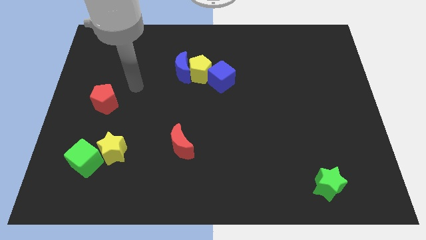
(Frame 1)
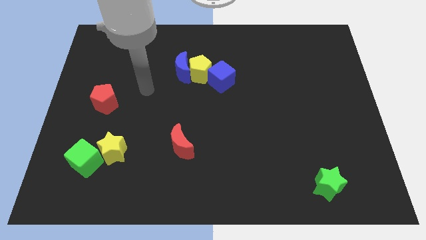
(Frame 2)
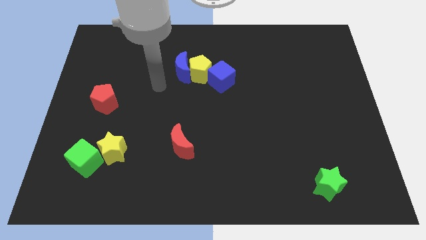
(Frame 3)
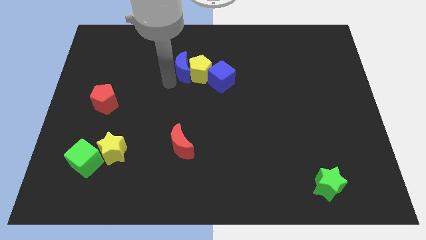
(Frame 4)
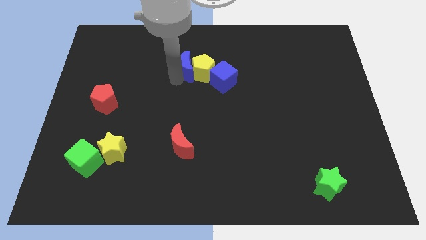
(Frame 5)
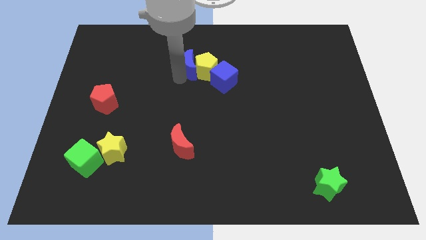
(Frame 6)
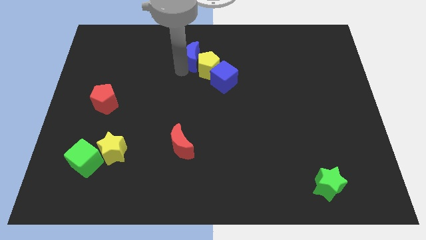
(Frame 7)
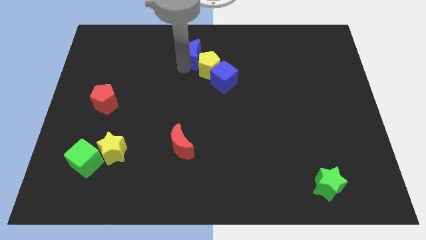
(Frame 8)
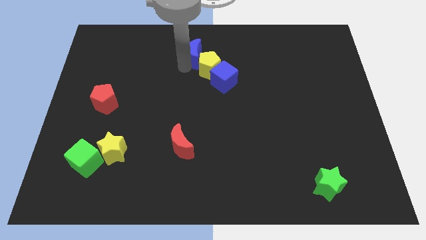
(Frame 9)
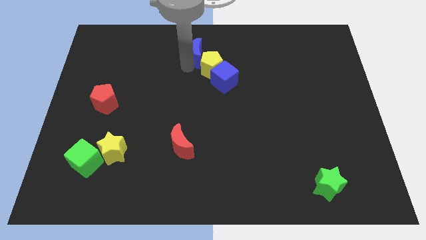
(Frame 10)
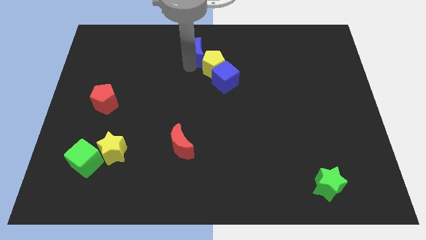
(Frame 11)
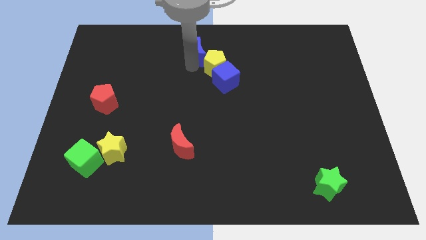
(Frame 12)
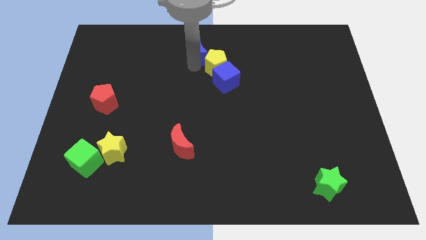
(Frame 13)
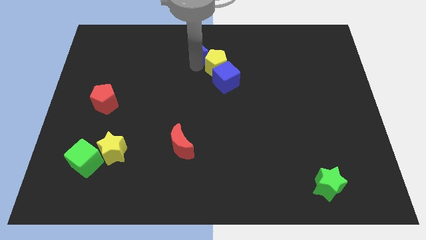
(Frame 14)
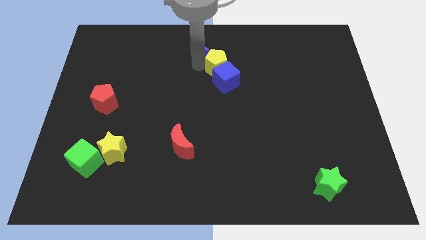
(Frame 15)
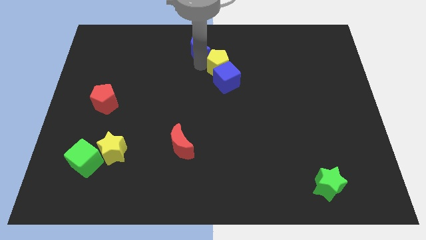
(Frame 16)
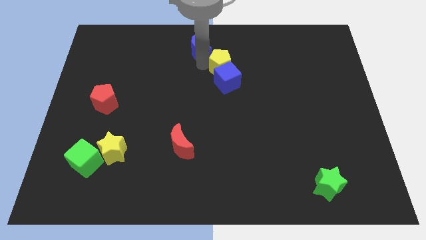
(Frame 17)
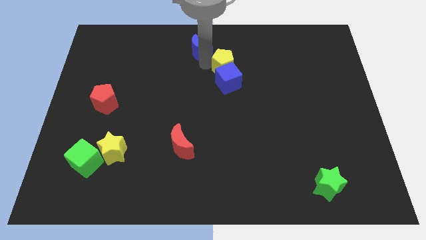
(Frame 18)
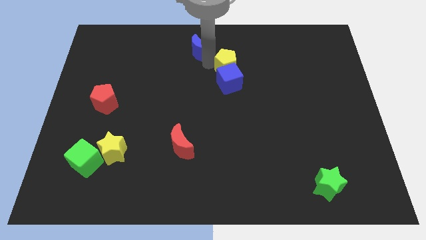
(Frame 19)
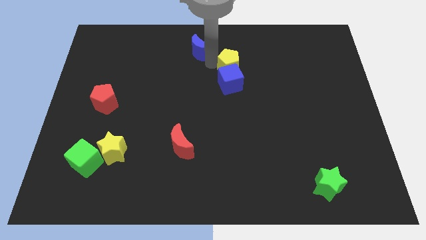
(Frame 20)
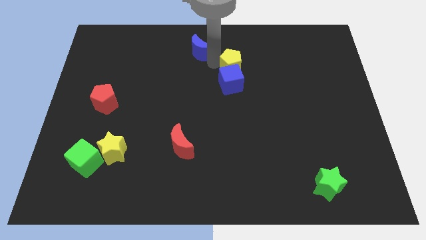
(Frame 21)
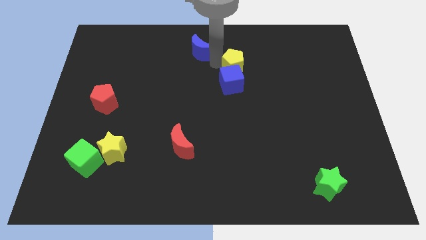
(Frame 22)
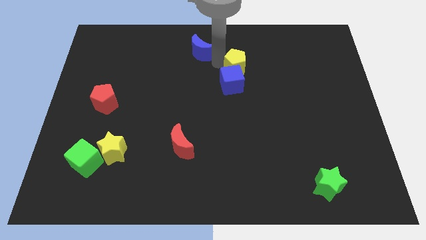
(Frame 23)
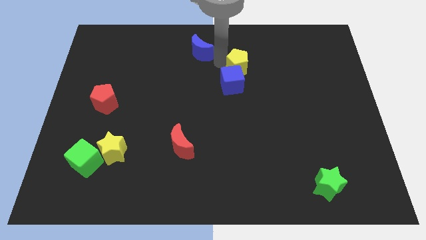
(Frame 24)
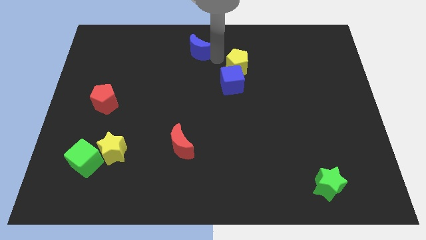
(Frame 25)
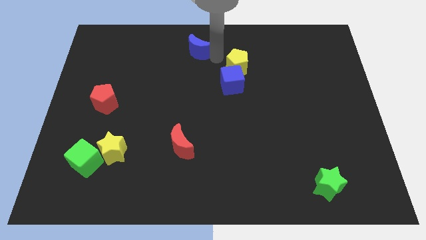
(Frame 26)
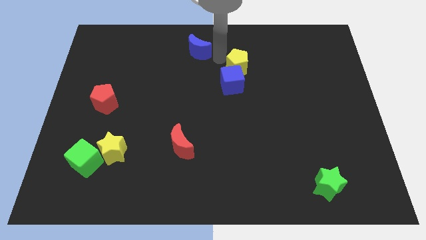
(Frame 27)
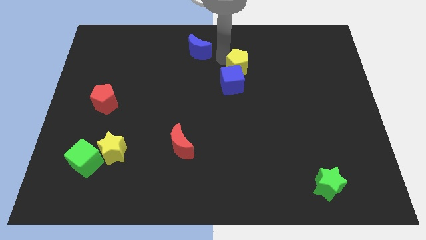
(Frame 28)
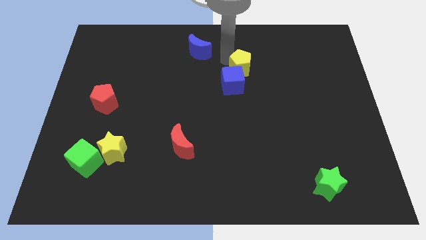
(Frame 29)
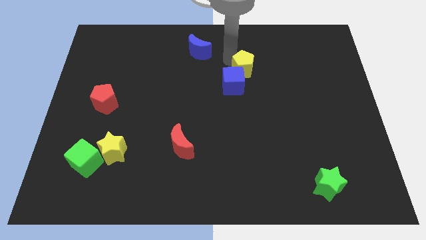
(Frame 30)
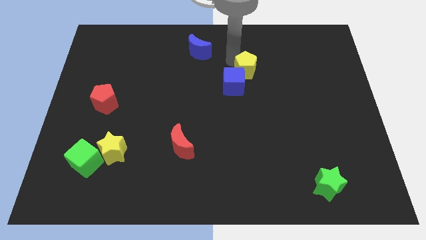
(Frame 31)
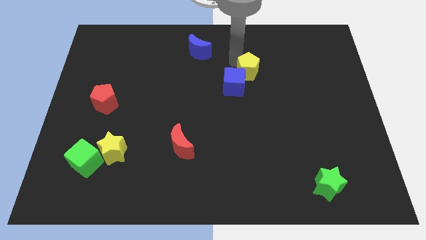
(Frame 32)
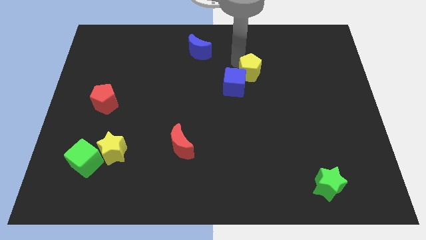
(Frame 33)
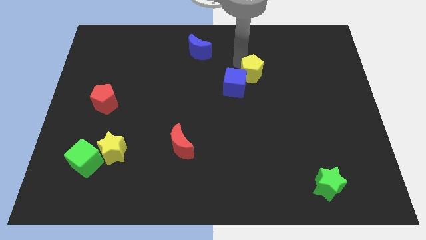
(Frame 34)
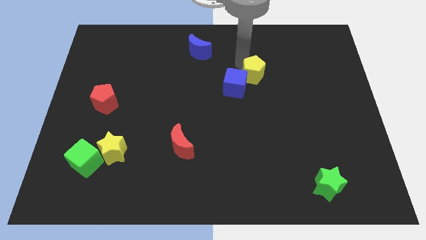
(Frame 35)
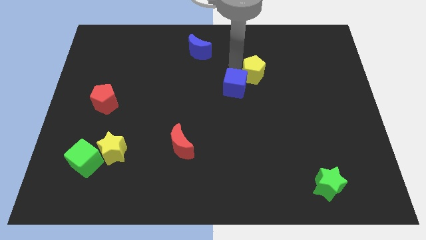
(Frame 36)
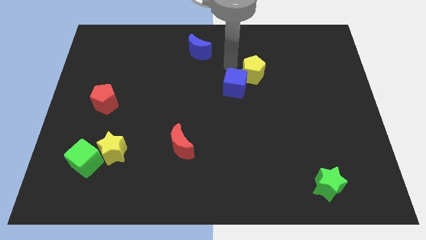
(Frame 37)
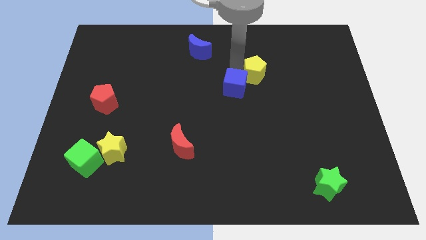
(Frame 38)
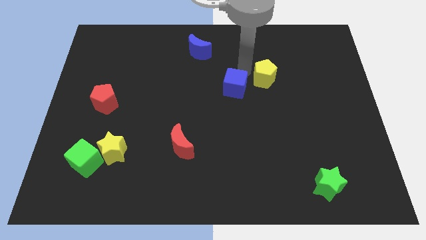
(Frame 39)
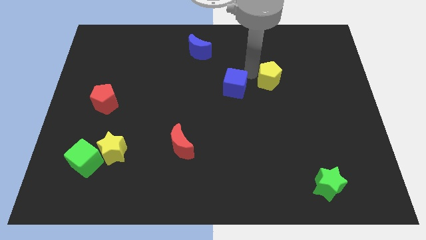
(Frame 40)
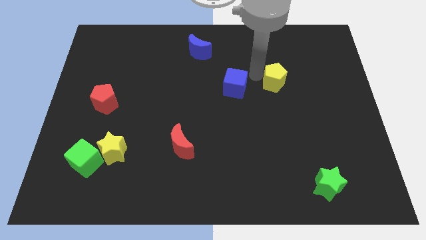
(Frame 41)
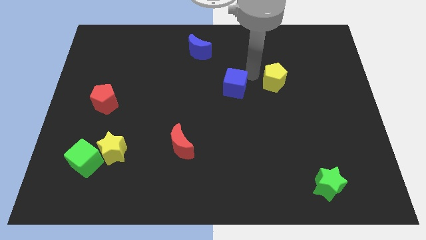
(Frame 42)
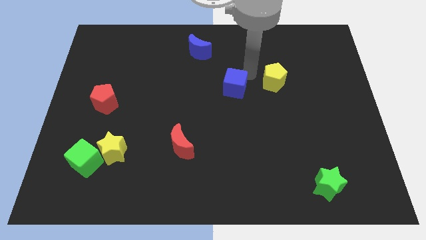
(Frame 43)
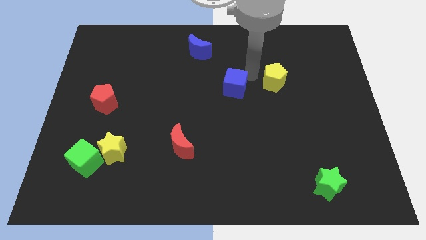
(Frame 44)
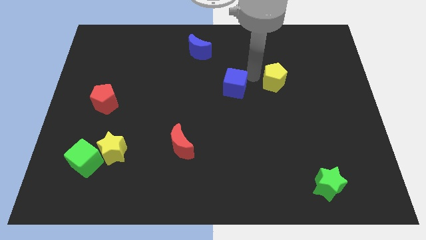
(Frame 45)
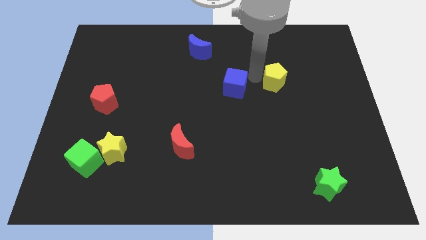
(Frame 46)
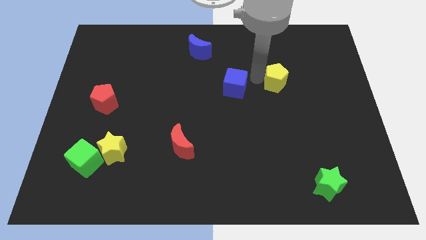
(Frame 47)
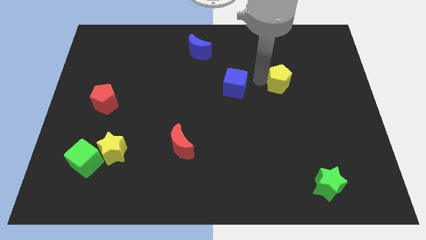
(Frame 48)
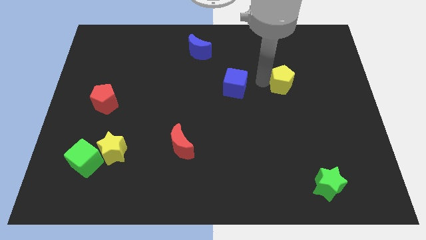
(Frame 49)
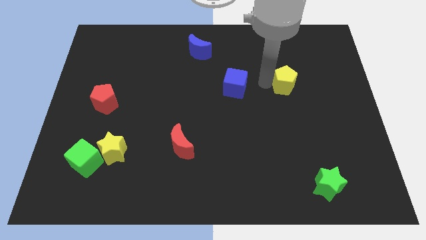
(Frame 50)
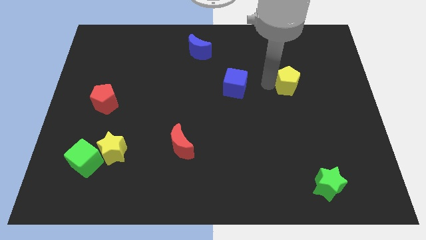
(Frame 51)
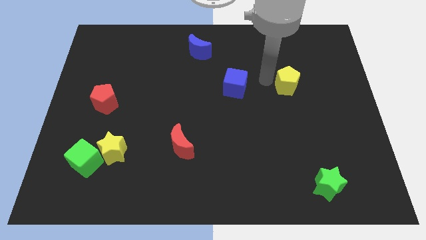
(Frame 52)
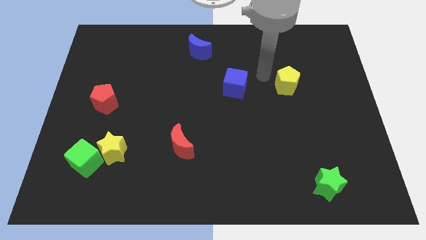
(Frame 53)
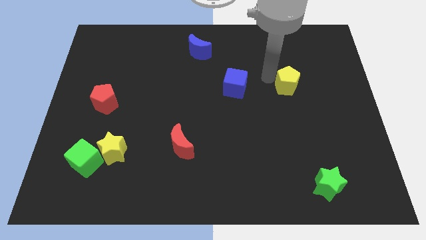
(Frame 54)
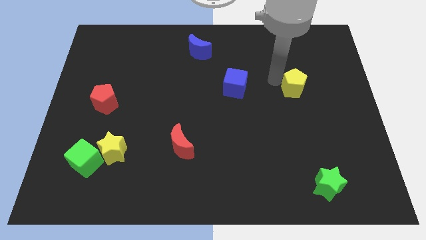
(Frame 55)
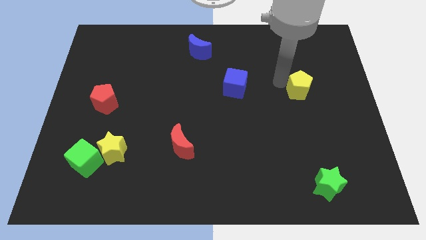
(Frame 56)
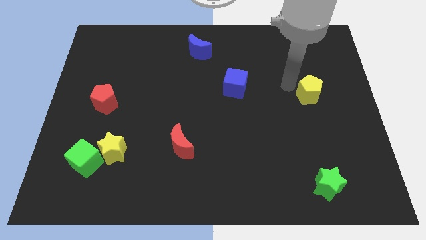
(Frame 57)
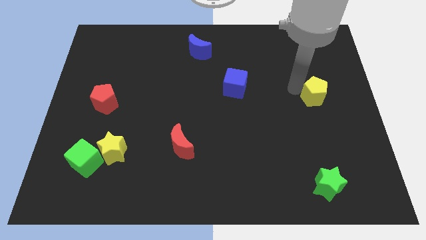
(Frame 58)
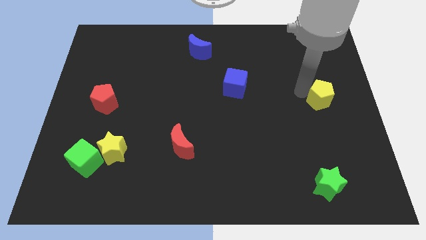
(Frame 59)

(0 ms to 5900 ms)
push the yellow pentagon to the right side
